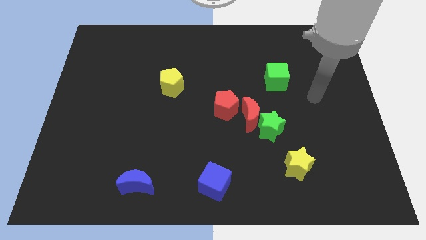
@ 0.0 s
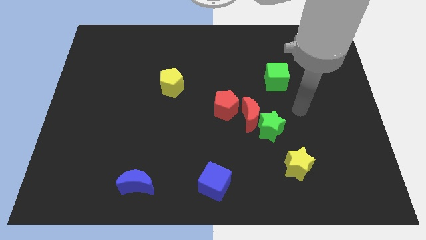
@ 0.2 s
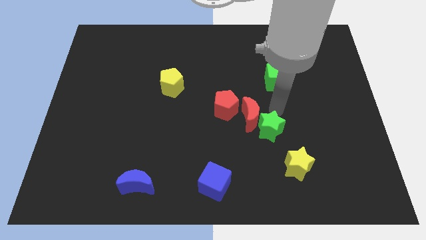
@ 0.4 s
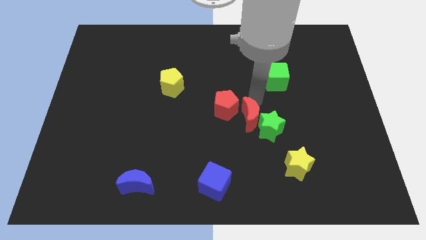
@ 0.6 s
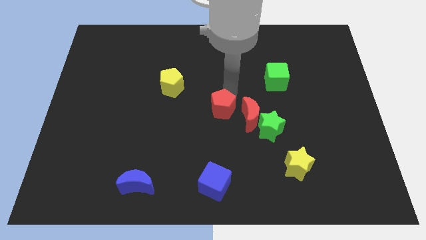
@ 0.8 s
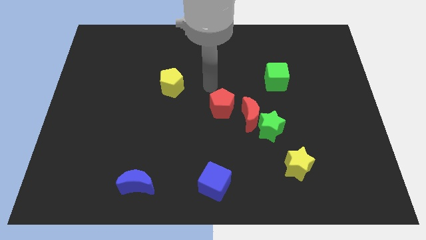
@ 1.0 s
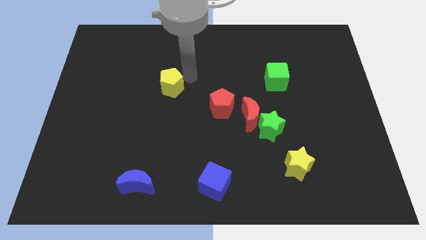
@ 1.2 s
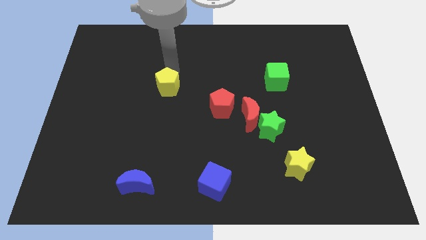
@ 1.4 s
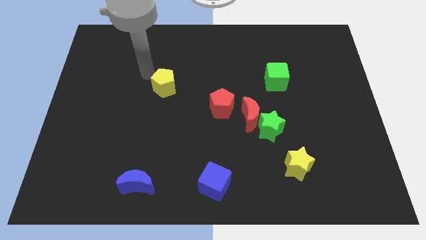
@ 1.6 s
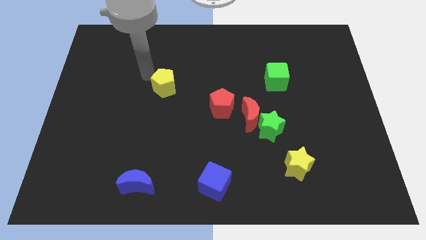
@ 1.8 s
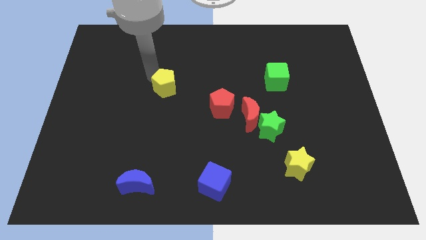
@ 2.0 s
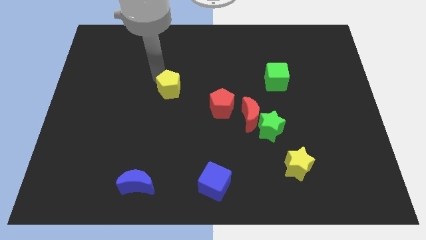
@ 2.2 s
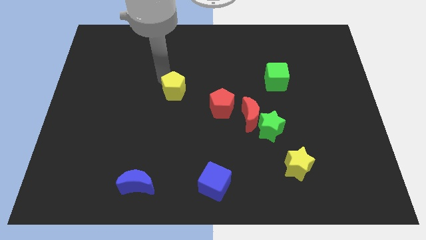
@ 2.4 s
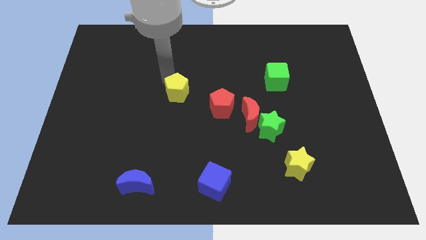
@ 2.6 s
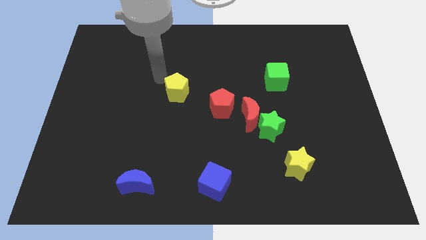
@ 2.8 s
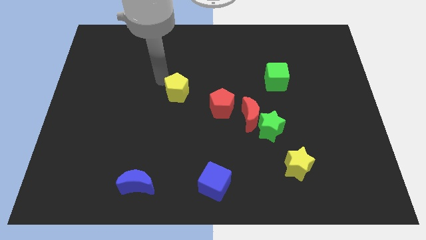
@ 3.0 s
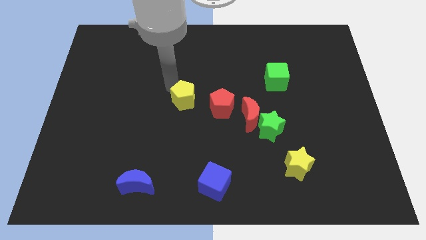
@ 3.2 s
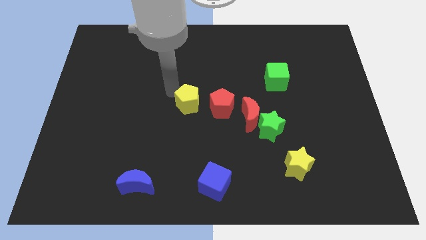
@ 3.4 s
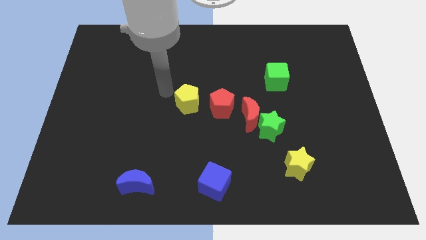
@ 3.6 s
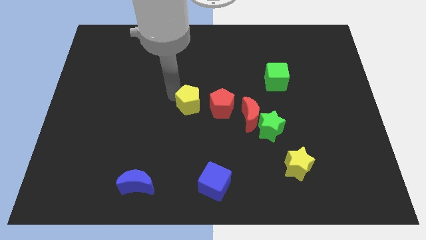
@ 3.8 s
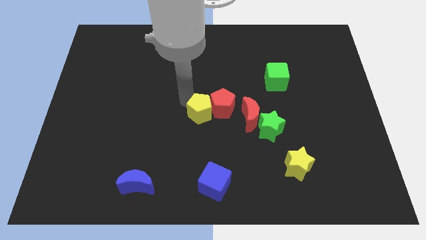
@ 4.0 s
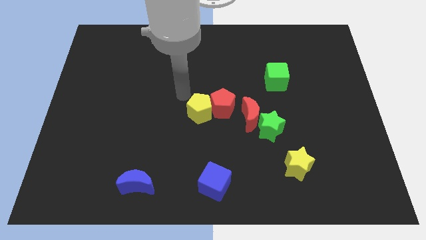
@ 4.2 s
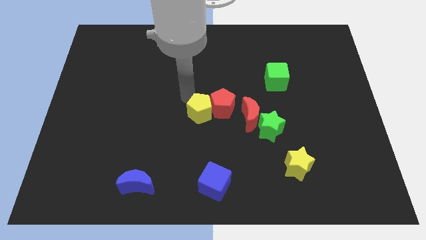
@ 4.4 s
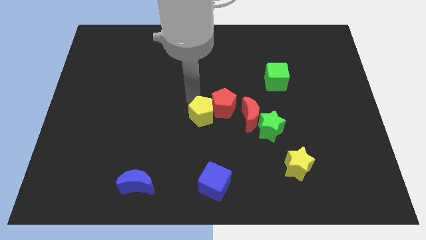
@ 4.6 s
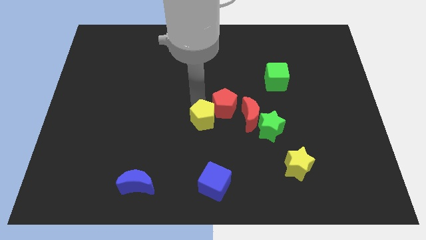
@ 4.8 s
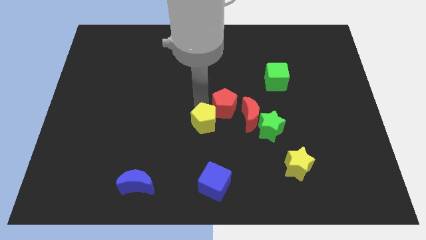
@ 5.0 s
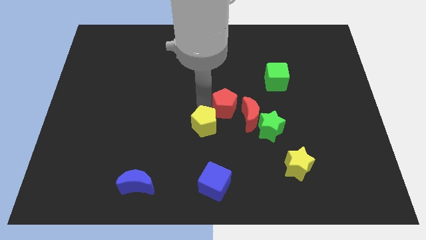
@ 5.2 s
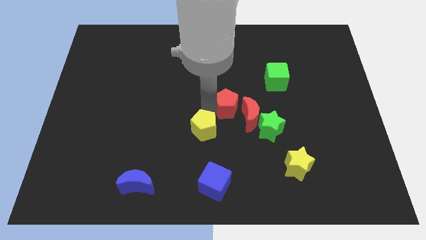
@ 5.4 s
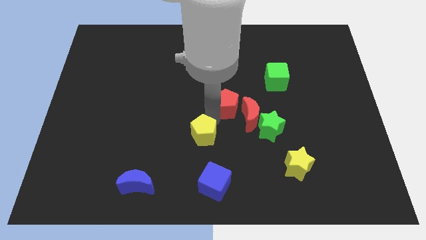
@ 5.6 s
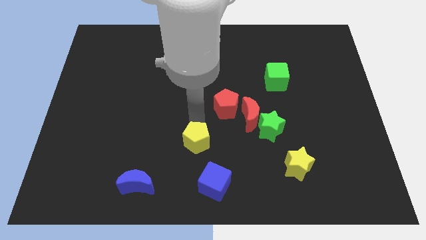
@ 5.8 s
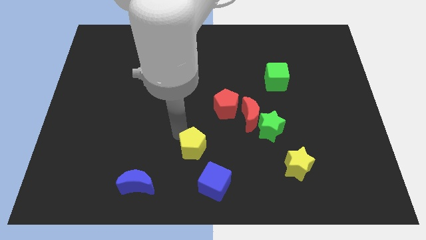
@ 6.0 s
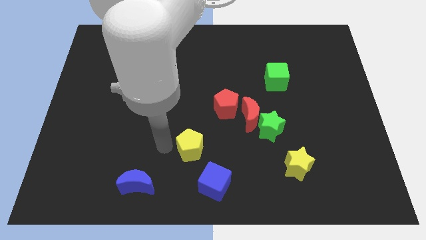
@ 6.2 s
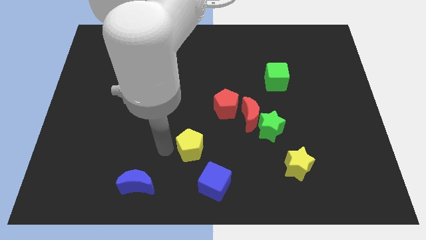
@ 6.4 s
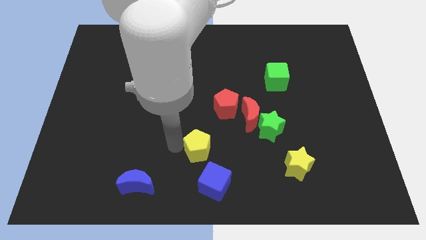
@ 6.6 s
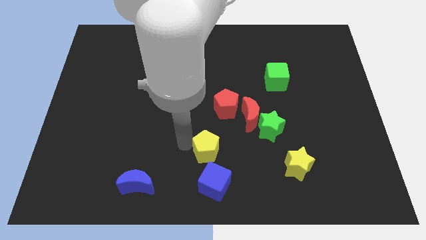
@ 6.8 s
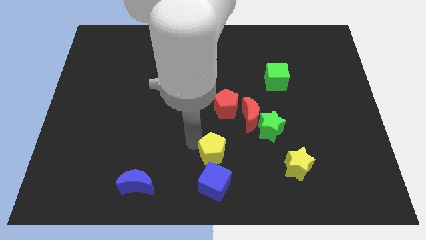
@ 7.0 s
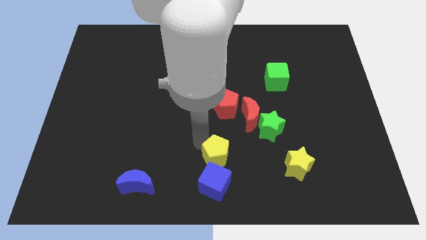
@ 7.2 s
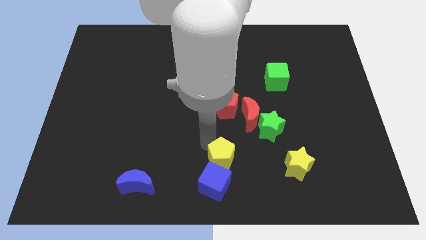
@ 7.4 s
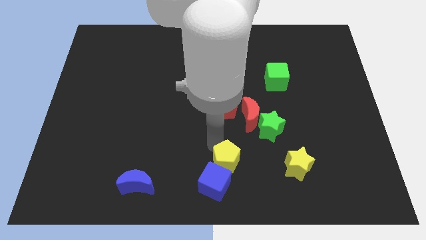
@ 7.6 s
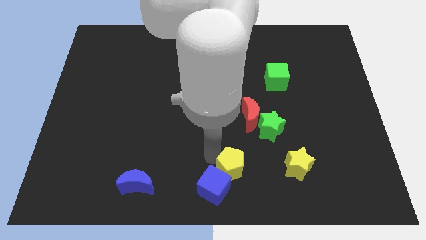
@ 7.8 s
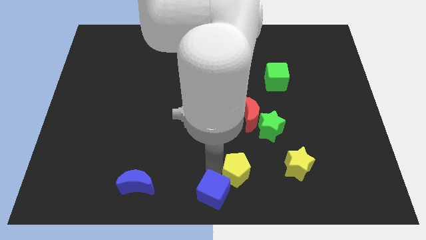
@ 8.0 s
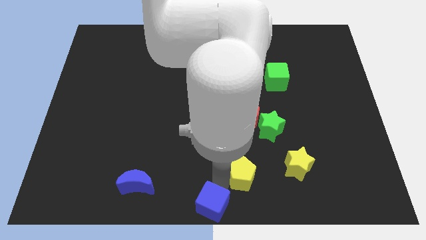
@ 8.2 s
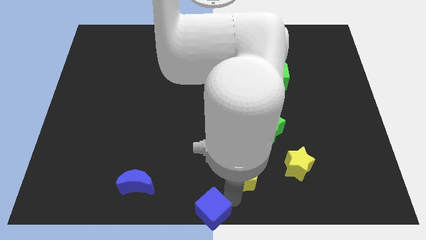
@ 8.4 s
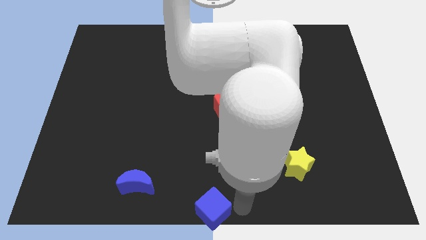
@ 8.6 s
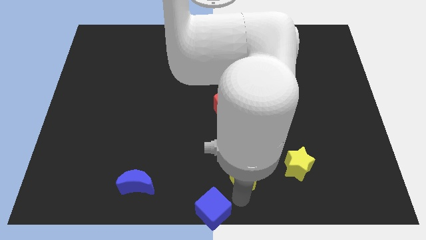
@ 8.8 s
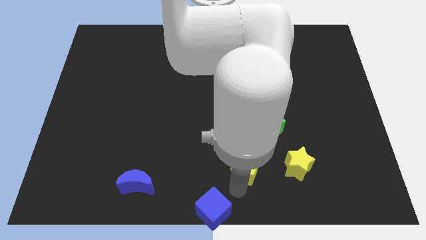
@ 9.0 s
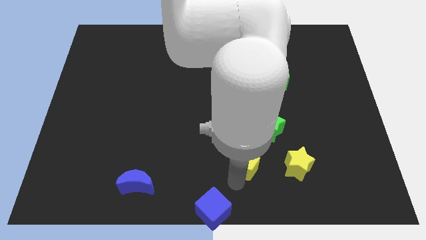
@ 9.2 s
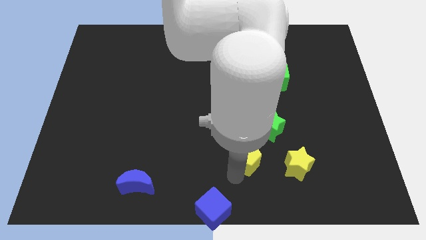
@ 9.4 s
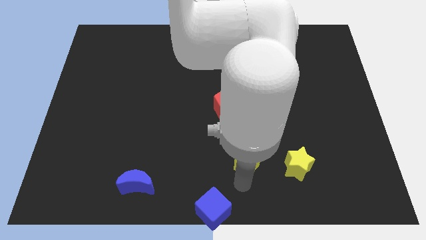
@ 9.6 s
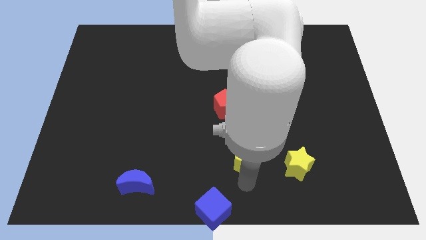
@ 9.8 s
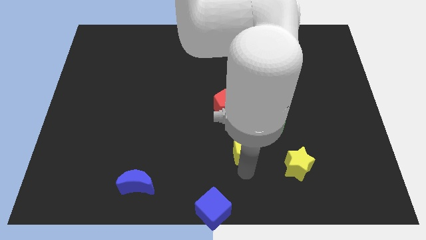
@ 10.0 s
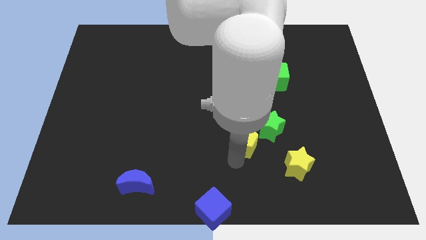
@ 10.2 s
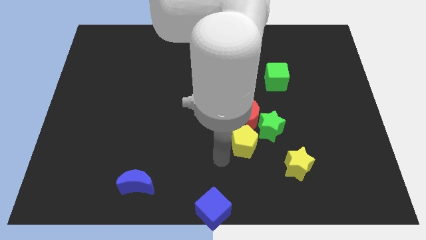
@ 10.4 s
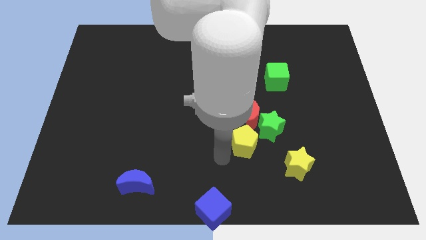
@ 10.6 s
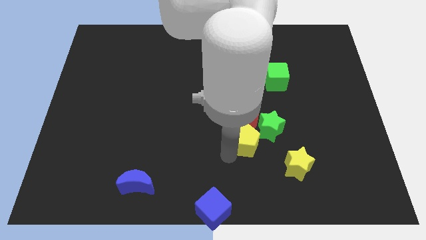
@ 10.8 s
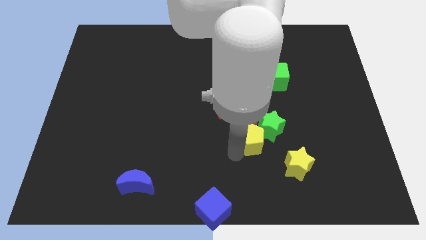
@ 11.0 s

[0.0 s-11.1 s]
move the yellow pentagon to the green star

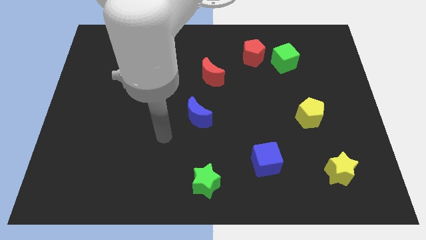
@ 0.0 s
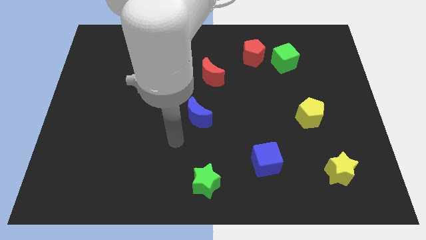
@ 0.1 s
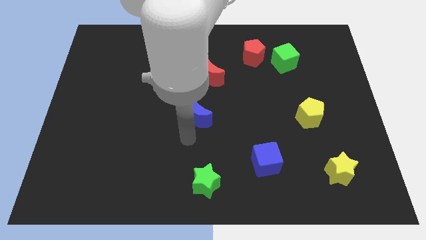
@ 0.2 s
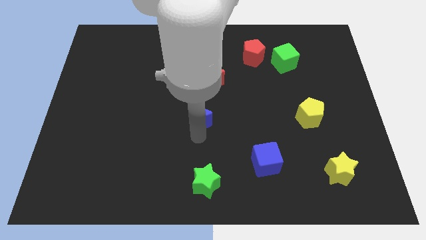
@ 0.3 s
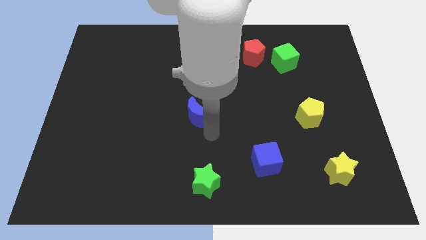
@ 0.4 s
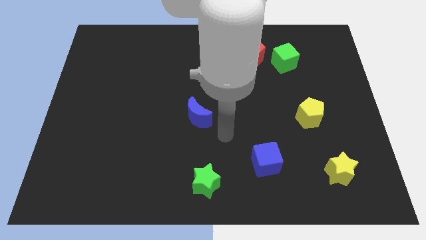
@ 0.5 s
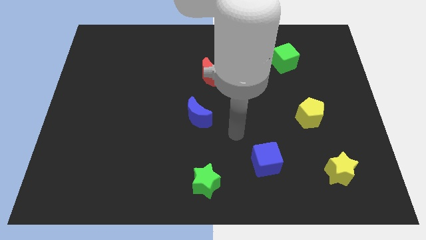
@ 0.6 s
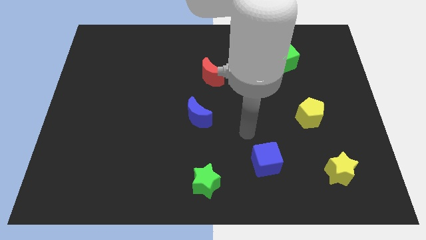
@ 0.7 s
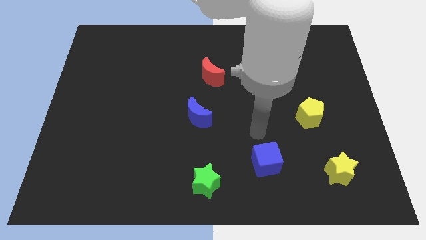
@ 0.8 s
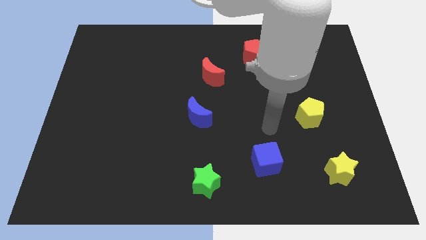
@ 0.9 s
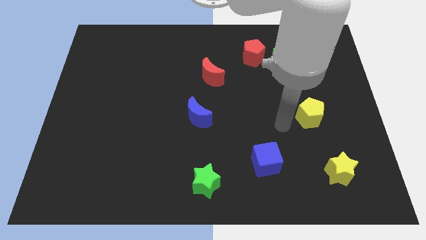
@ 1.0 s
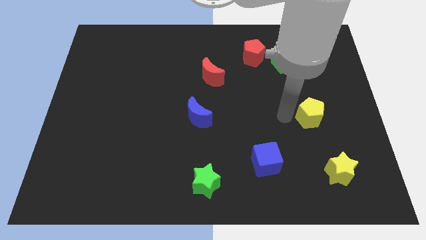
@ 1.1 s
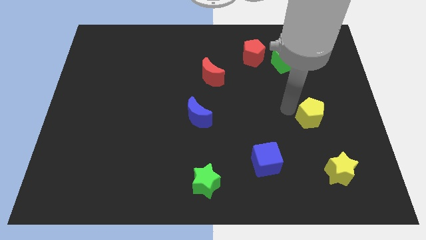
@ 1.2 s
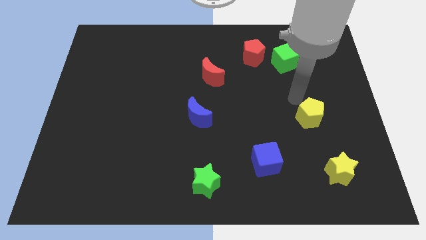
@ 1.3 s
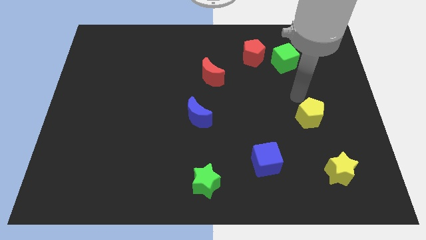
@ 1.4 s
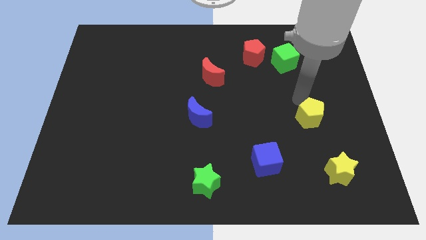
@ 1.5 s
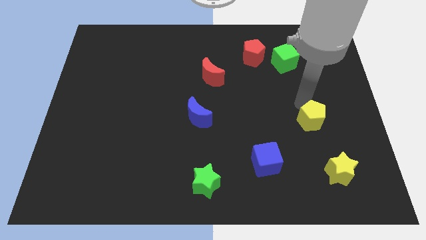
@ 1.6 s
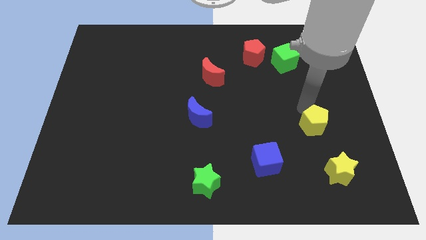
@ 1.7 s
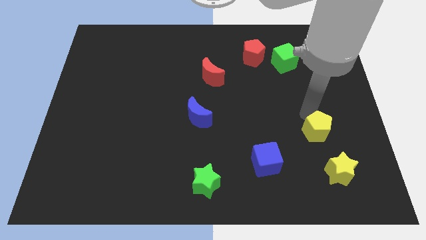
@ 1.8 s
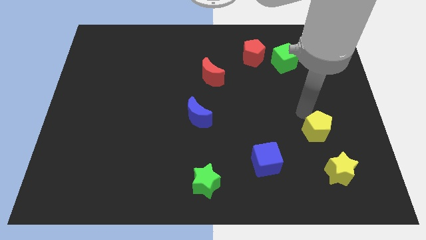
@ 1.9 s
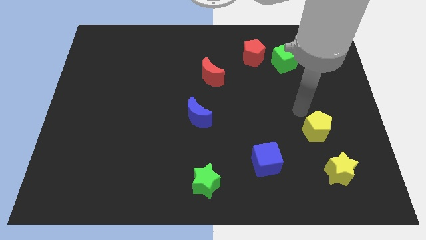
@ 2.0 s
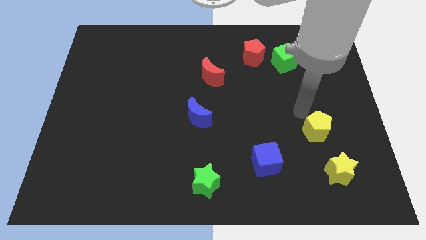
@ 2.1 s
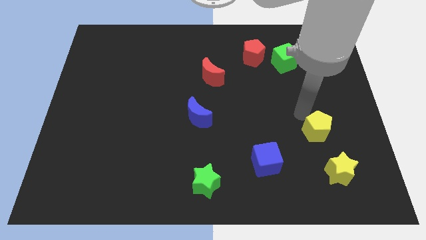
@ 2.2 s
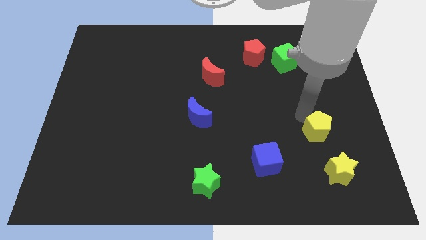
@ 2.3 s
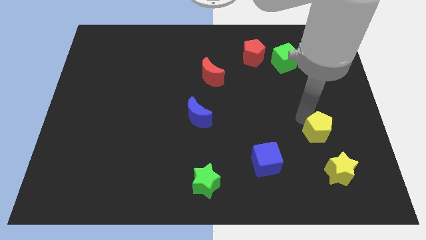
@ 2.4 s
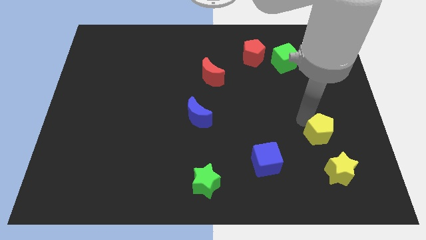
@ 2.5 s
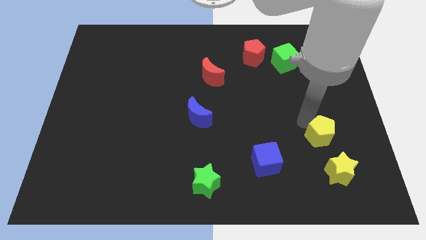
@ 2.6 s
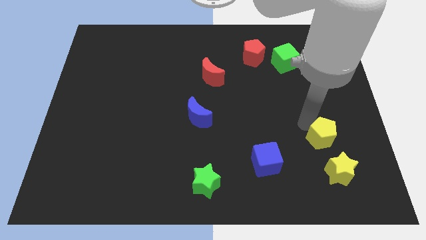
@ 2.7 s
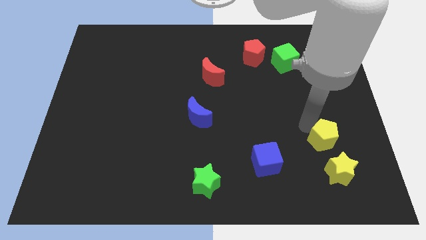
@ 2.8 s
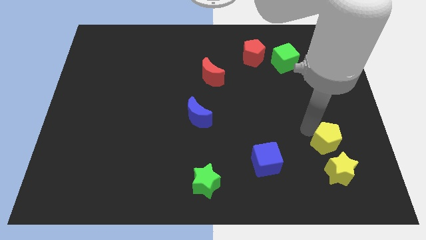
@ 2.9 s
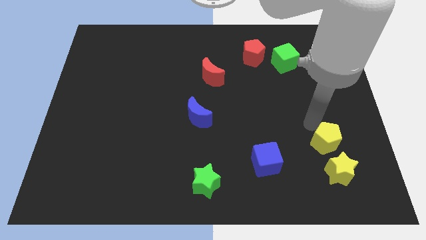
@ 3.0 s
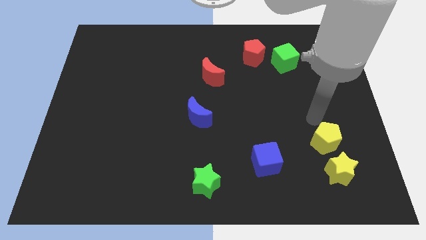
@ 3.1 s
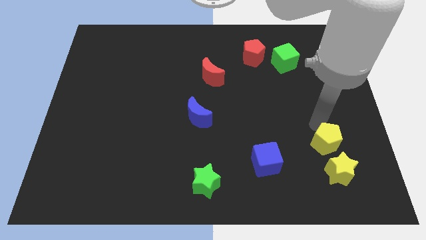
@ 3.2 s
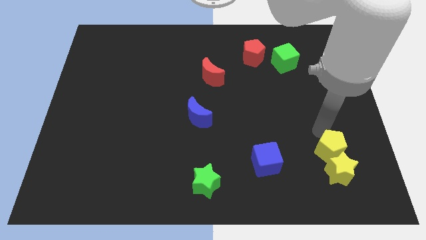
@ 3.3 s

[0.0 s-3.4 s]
put the yellow pentagon next to the yellow star
